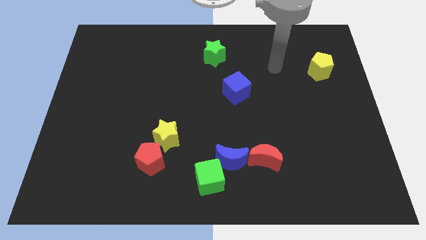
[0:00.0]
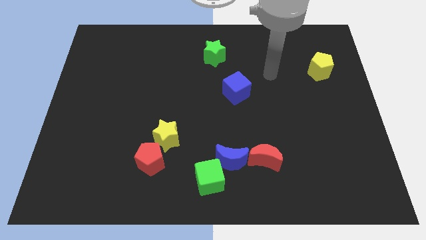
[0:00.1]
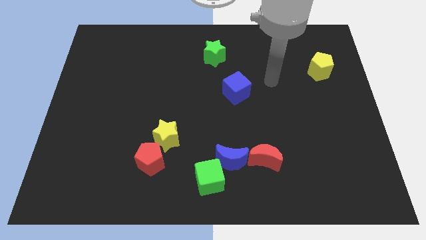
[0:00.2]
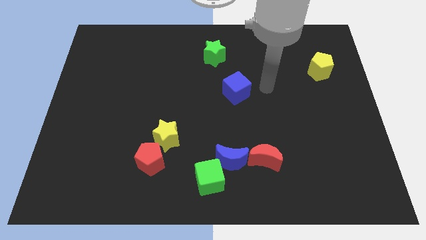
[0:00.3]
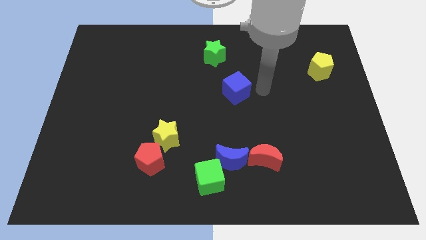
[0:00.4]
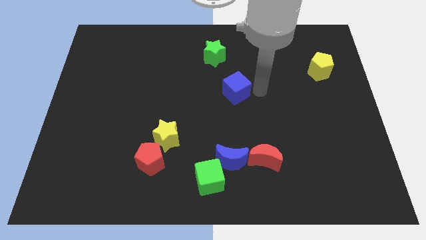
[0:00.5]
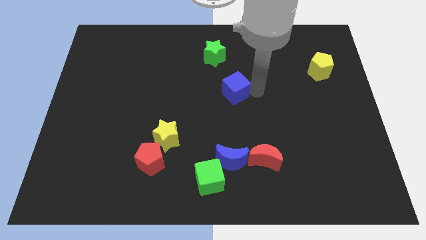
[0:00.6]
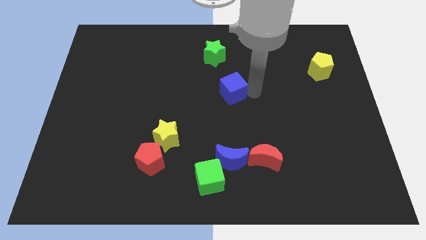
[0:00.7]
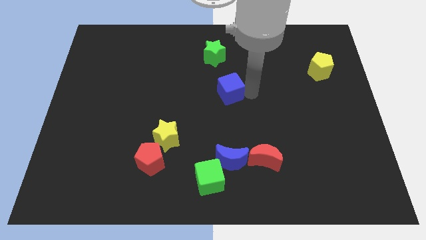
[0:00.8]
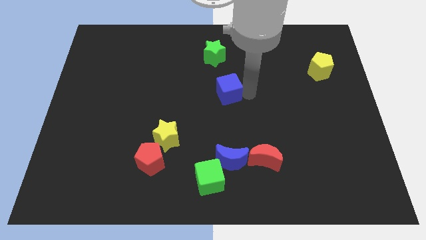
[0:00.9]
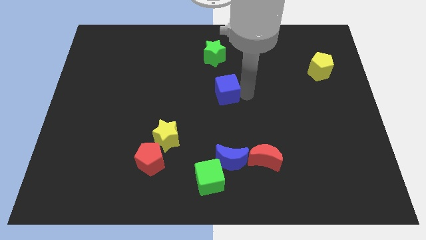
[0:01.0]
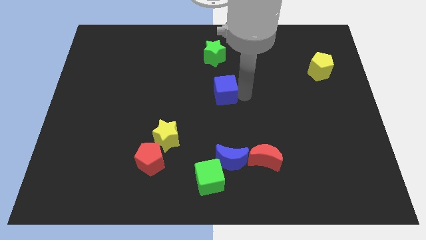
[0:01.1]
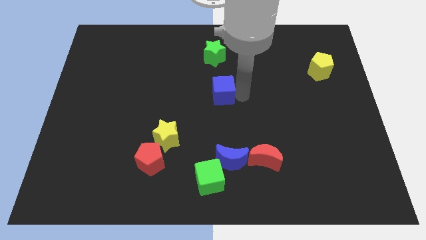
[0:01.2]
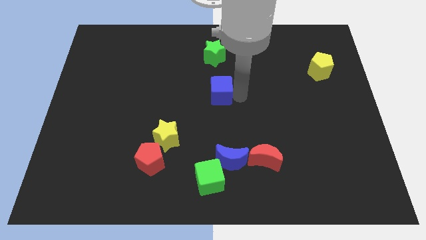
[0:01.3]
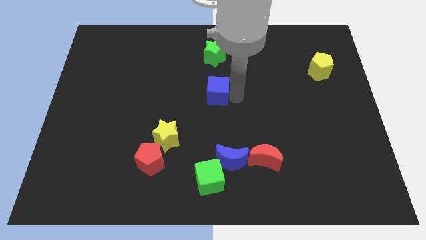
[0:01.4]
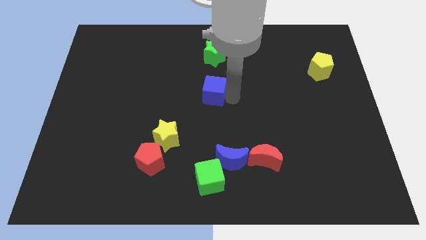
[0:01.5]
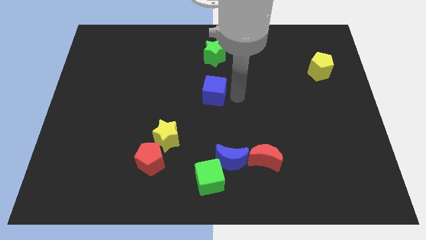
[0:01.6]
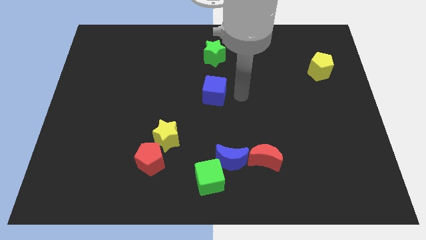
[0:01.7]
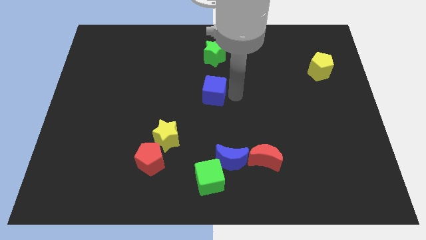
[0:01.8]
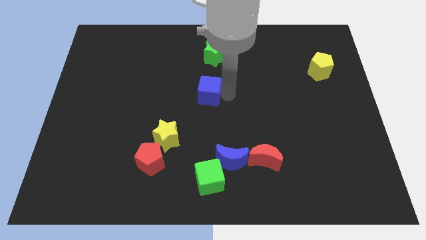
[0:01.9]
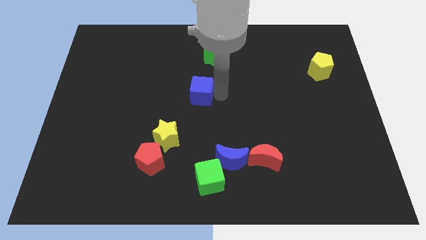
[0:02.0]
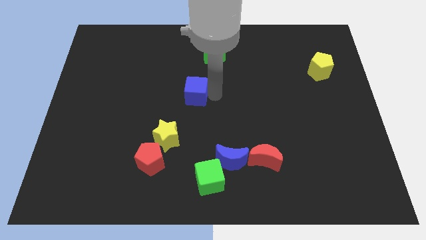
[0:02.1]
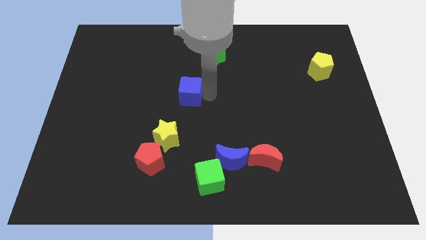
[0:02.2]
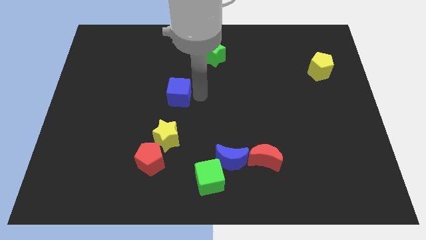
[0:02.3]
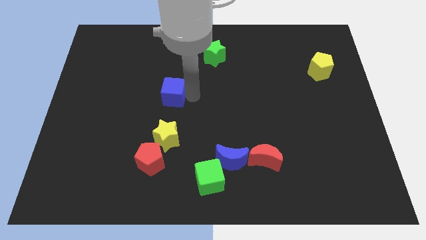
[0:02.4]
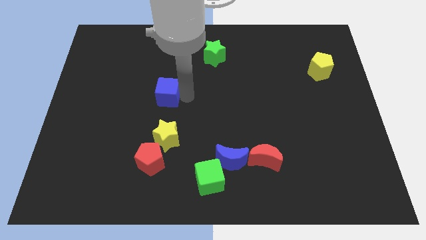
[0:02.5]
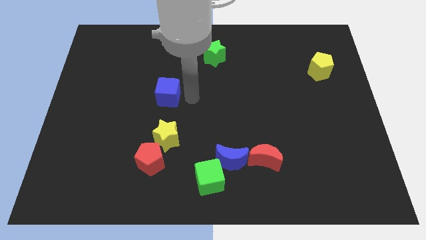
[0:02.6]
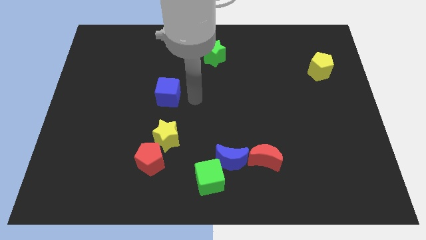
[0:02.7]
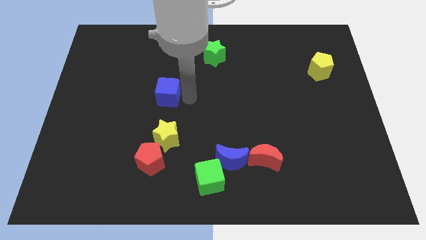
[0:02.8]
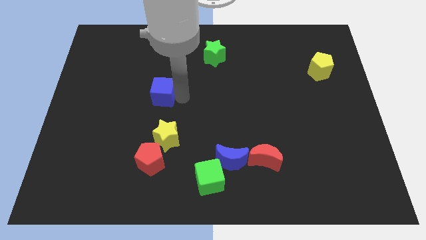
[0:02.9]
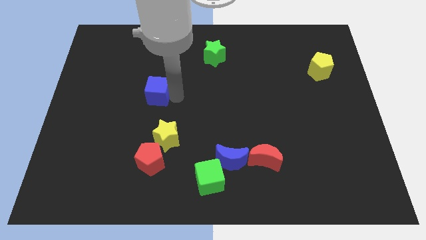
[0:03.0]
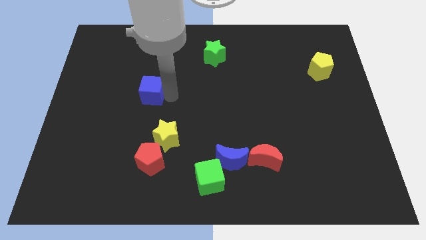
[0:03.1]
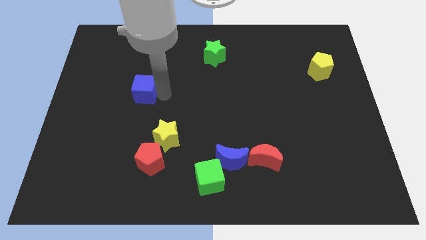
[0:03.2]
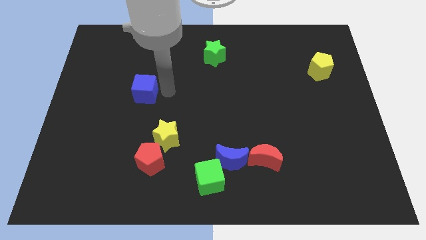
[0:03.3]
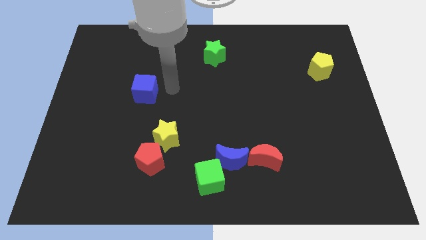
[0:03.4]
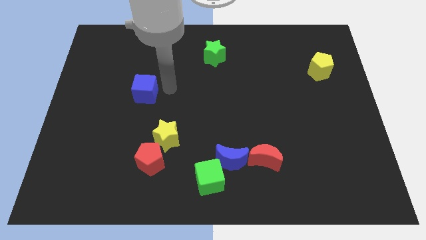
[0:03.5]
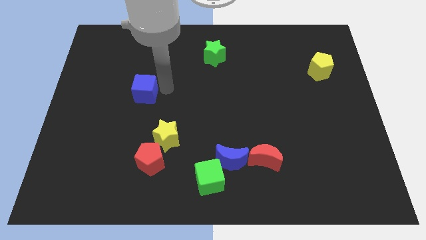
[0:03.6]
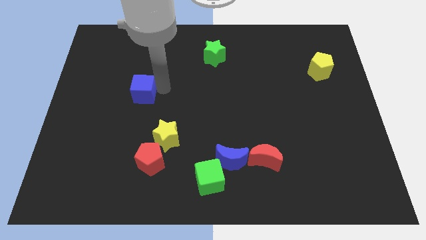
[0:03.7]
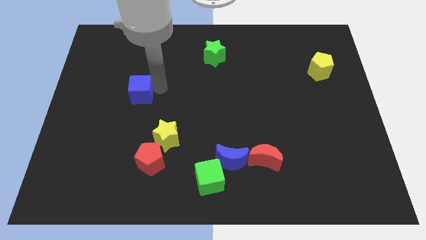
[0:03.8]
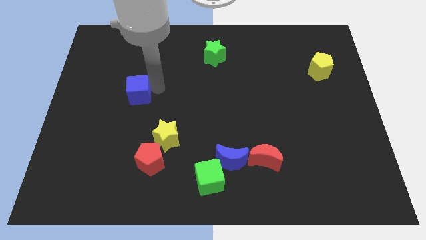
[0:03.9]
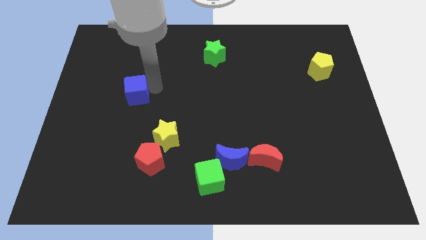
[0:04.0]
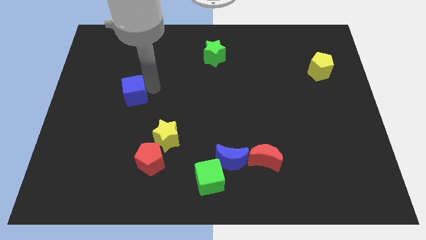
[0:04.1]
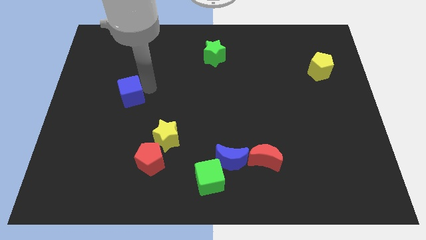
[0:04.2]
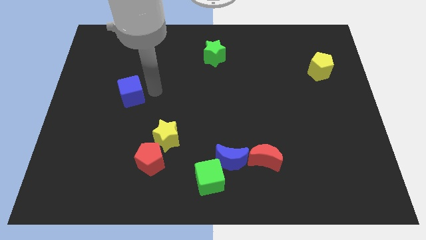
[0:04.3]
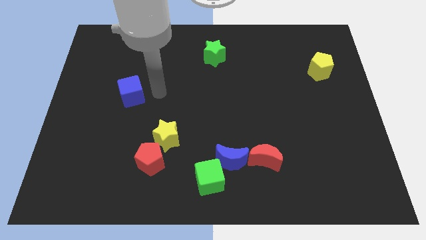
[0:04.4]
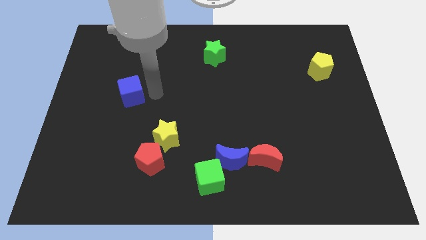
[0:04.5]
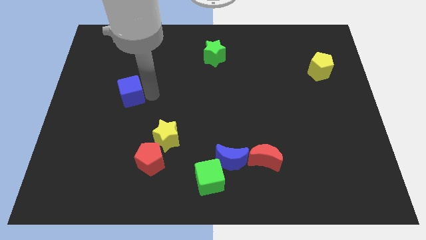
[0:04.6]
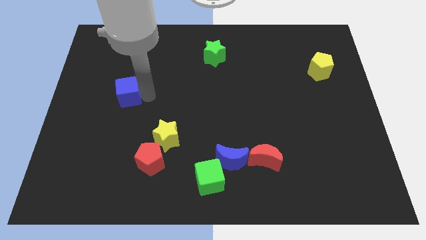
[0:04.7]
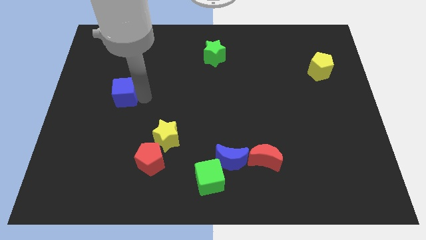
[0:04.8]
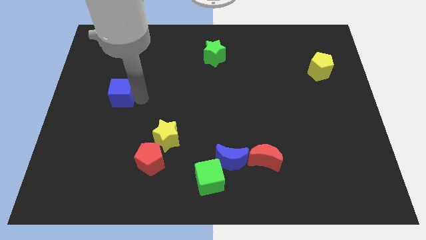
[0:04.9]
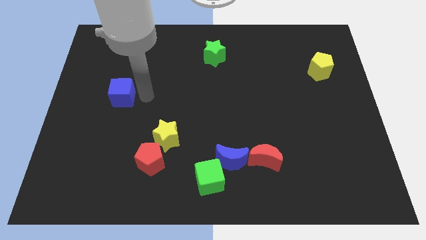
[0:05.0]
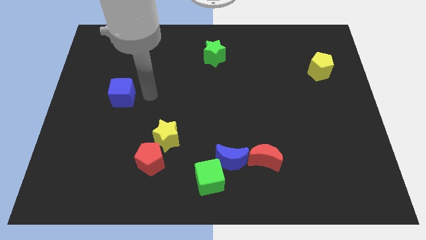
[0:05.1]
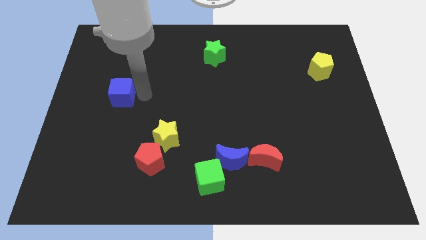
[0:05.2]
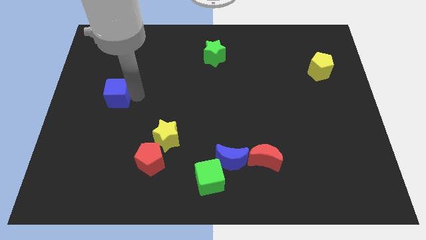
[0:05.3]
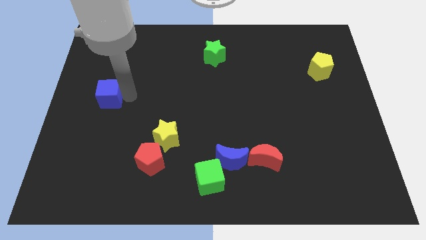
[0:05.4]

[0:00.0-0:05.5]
move the blue cube to the center left

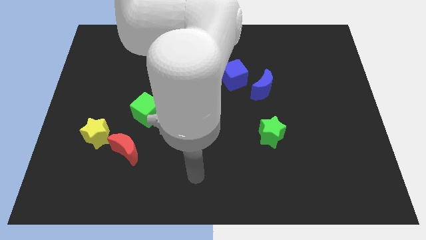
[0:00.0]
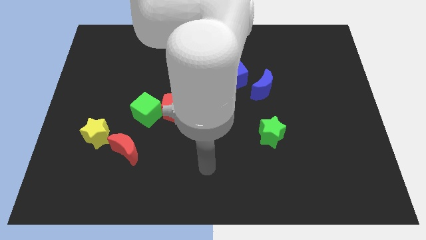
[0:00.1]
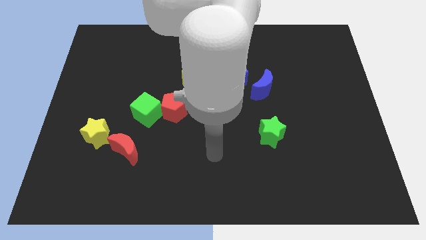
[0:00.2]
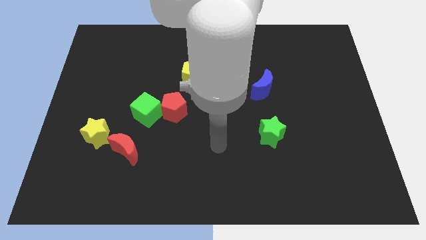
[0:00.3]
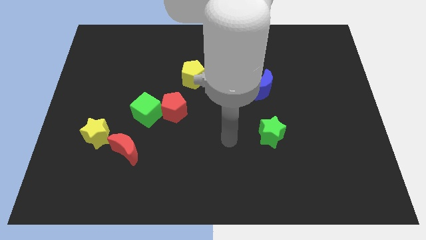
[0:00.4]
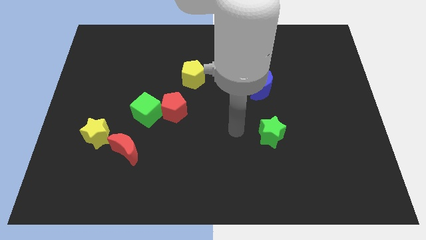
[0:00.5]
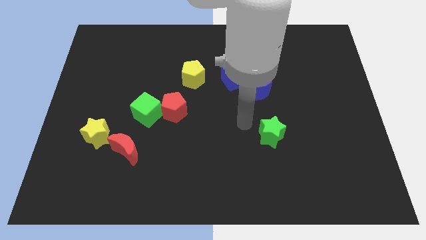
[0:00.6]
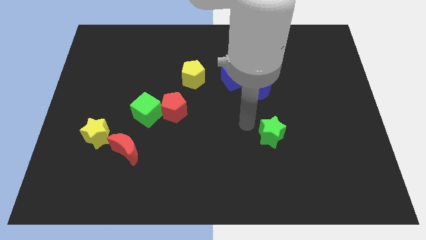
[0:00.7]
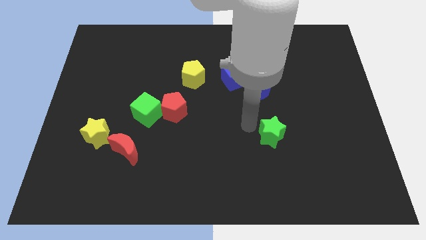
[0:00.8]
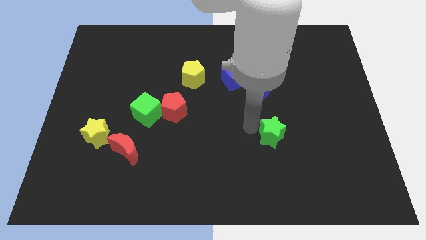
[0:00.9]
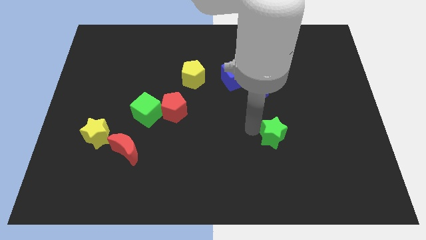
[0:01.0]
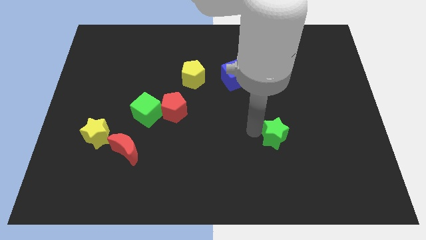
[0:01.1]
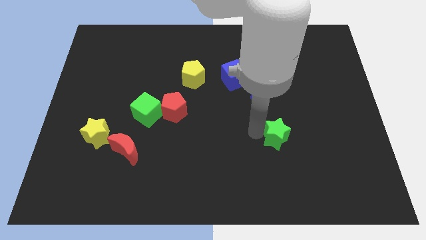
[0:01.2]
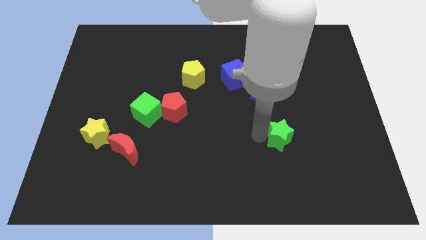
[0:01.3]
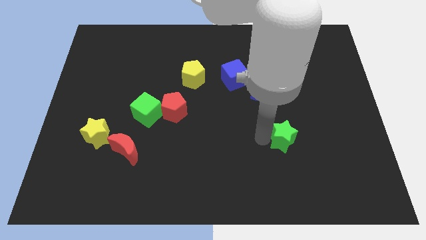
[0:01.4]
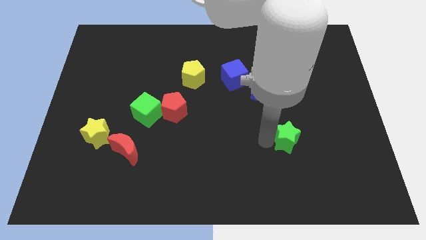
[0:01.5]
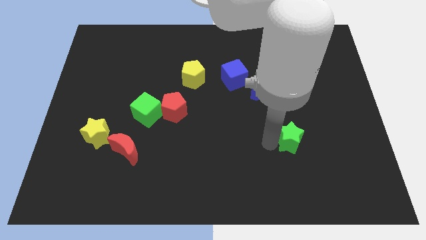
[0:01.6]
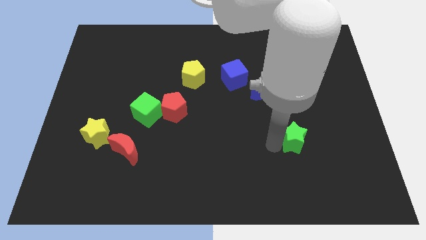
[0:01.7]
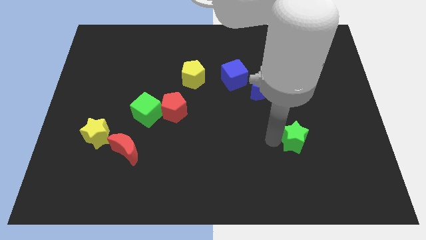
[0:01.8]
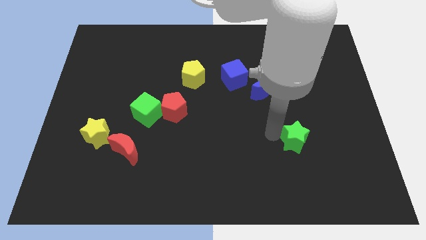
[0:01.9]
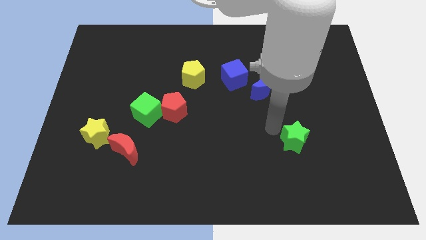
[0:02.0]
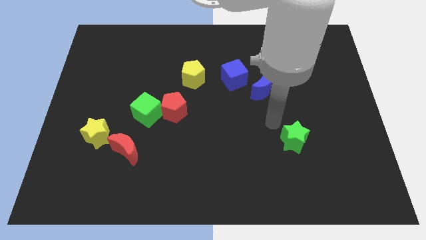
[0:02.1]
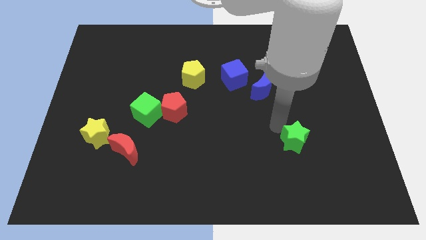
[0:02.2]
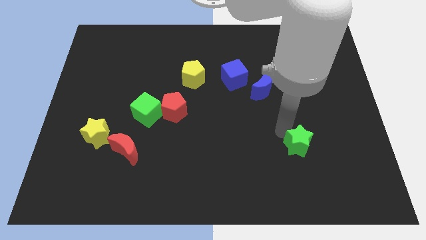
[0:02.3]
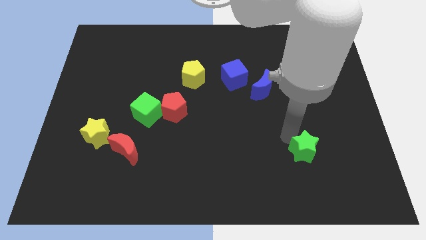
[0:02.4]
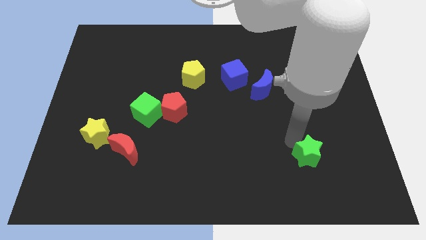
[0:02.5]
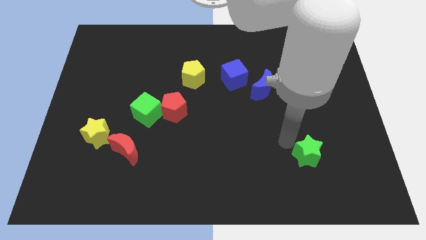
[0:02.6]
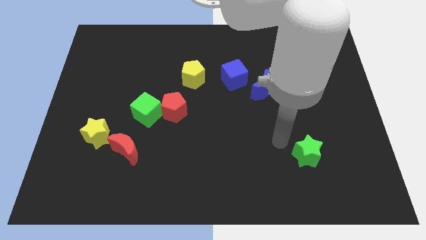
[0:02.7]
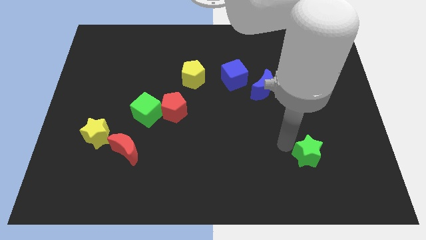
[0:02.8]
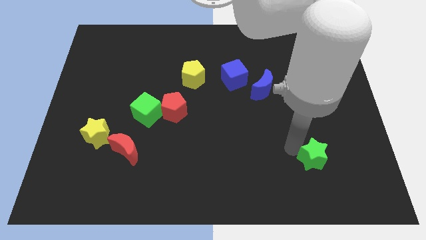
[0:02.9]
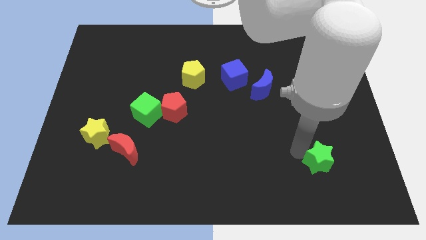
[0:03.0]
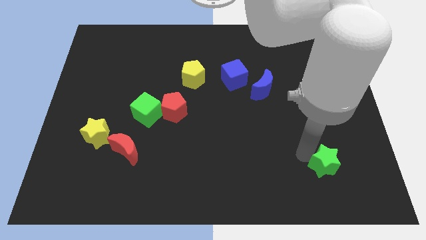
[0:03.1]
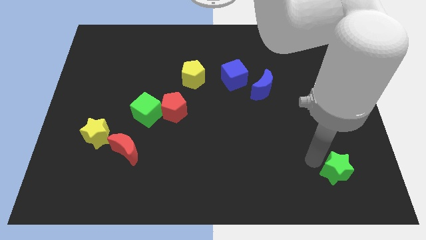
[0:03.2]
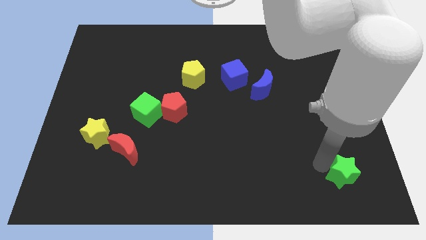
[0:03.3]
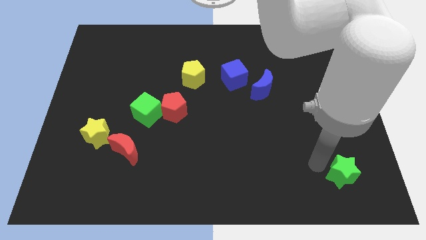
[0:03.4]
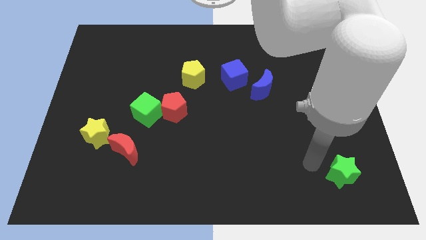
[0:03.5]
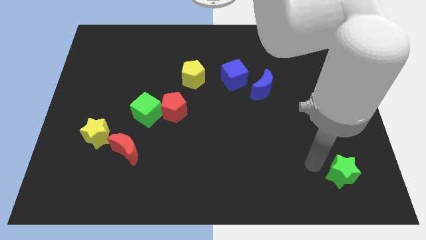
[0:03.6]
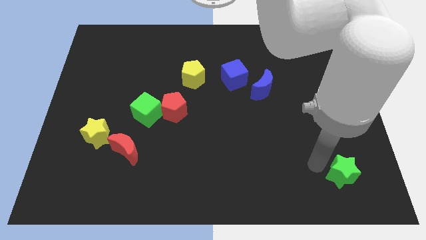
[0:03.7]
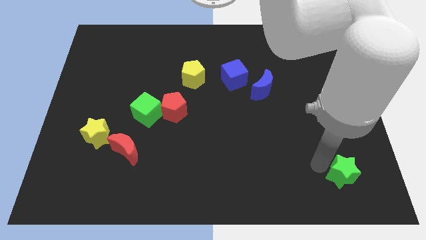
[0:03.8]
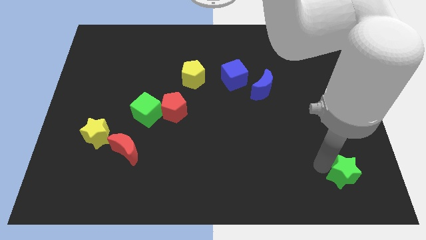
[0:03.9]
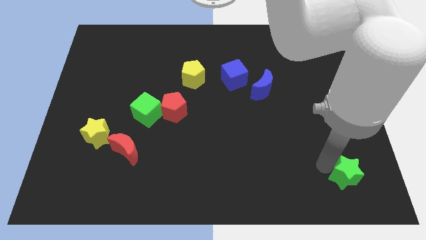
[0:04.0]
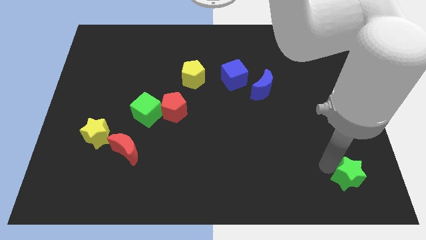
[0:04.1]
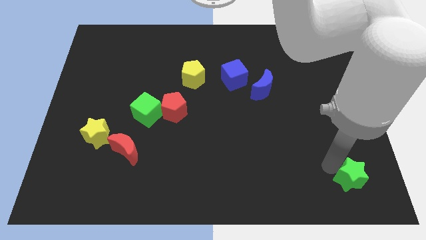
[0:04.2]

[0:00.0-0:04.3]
push the green star to the bottom right of the board
